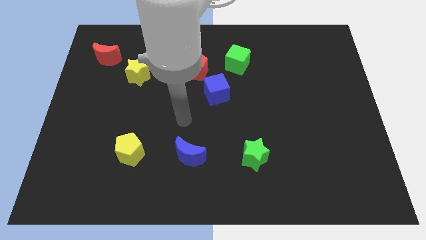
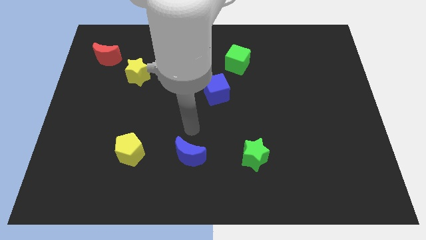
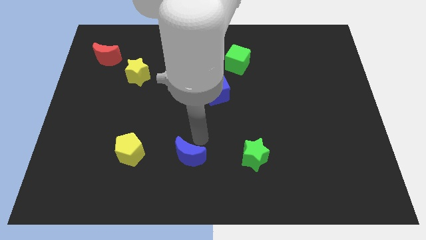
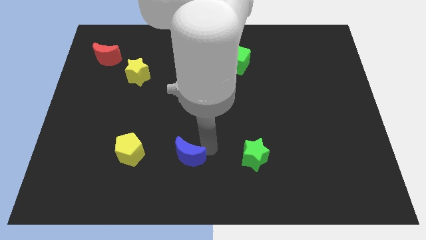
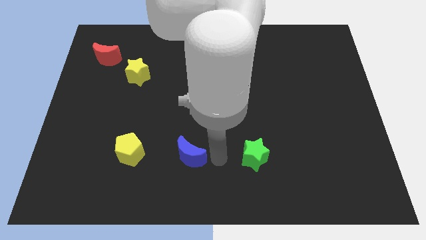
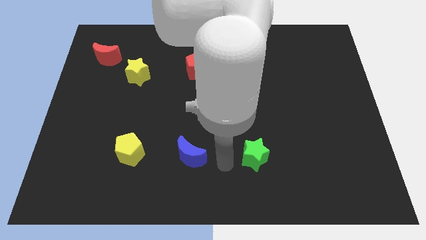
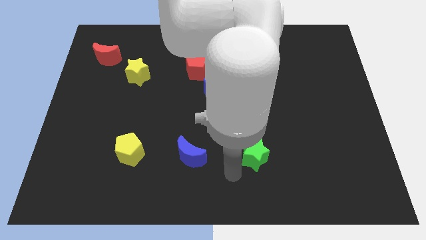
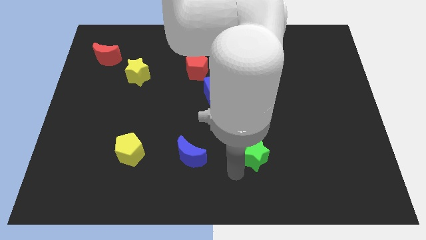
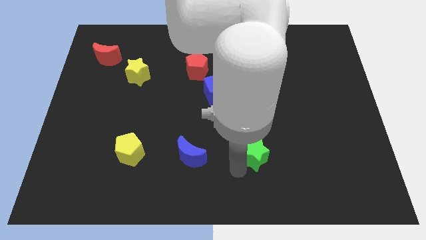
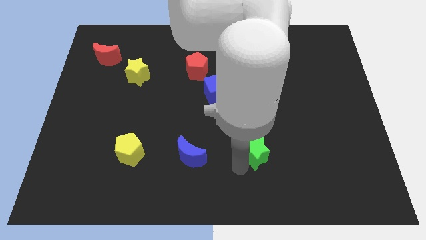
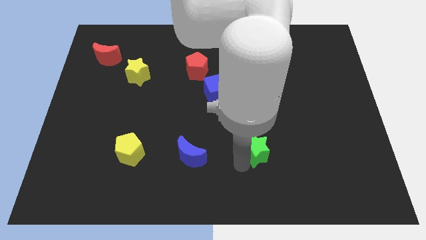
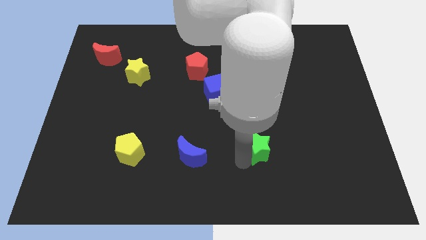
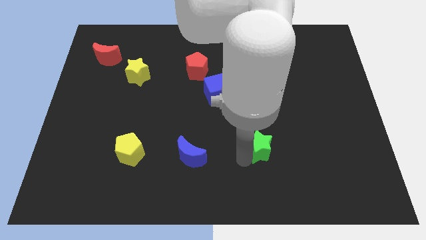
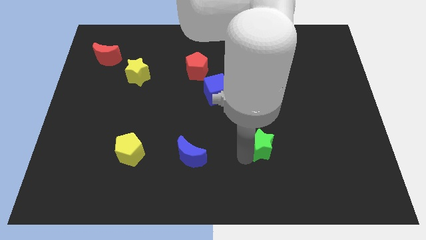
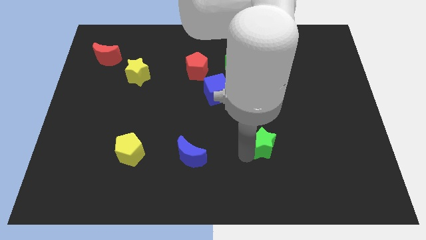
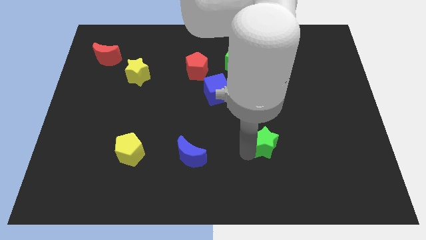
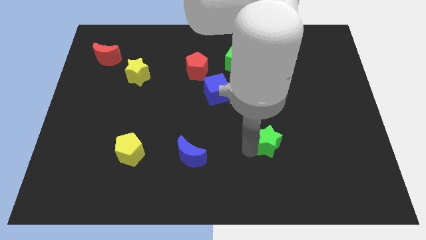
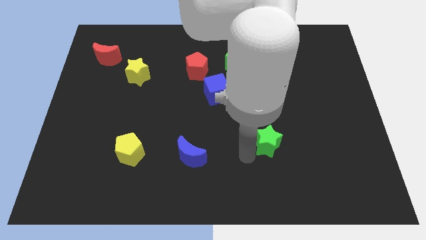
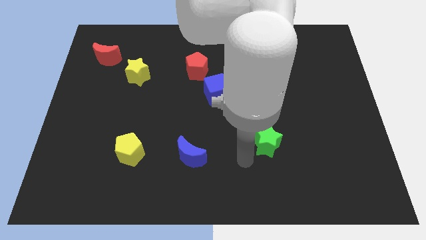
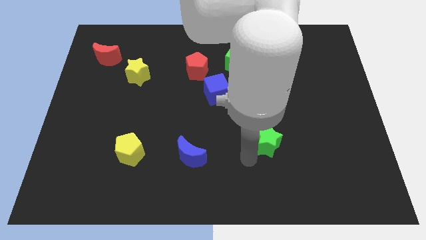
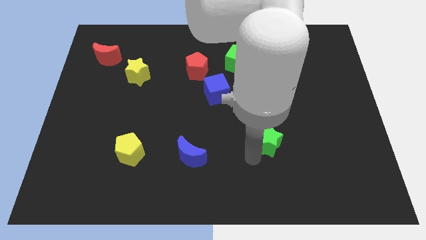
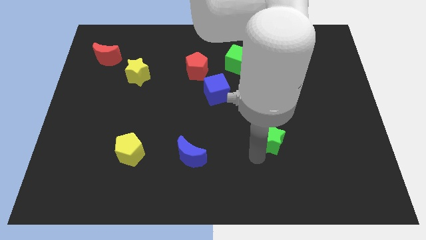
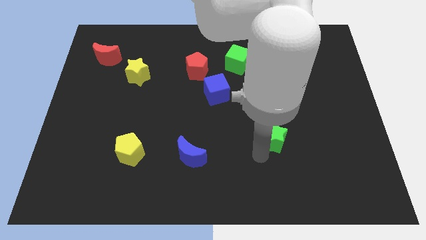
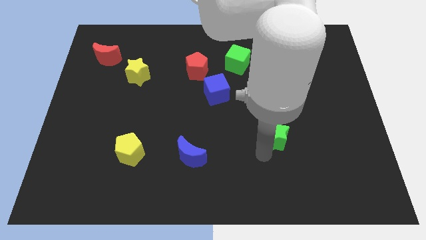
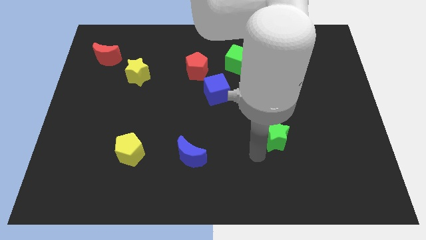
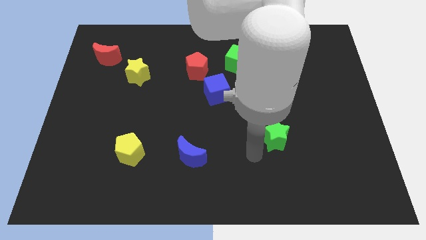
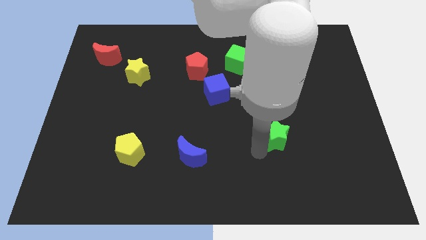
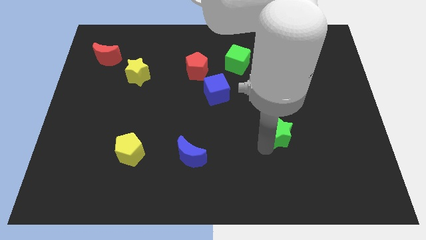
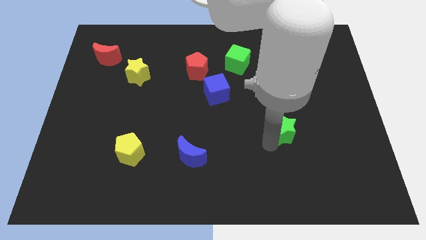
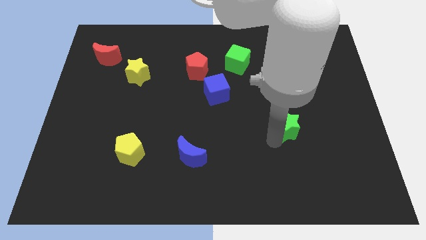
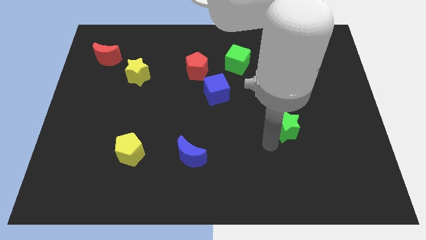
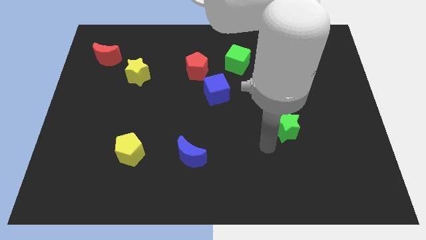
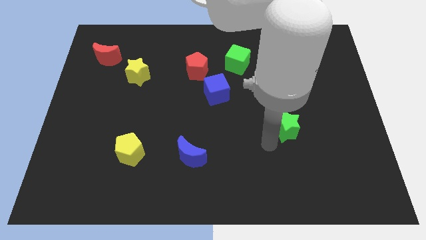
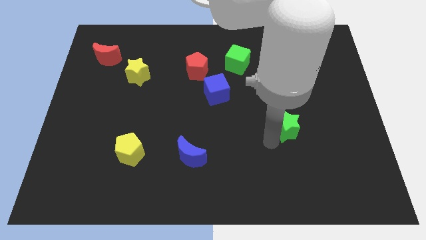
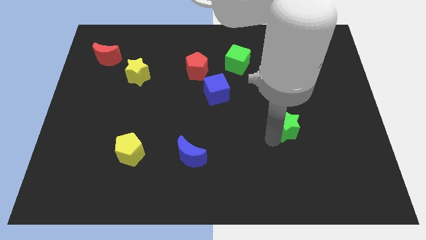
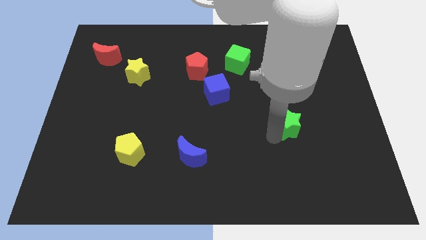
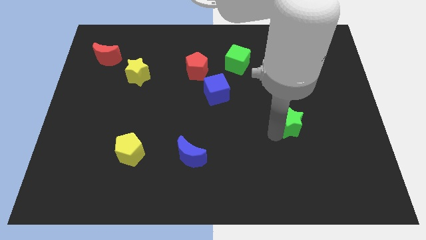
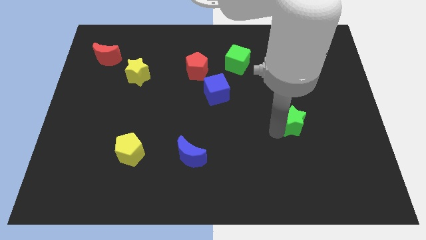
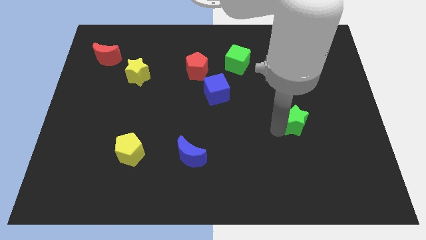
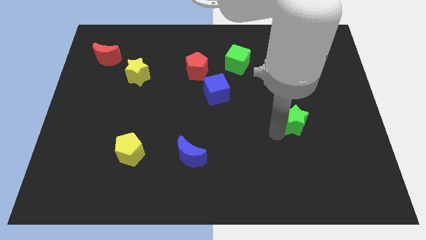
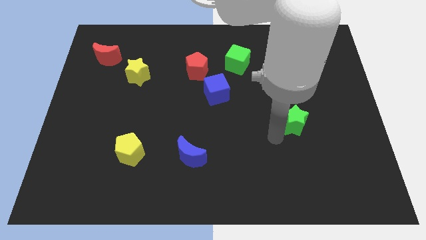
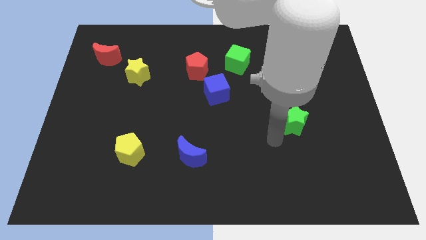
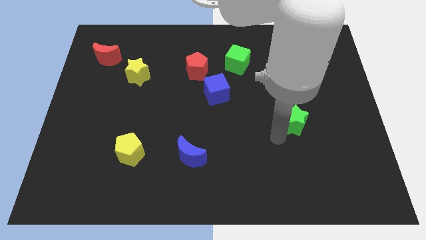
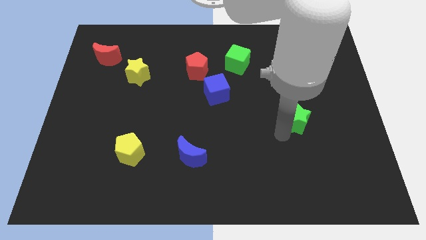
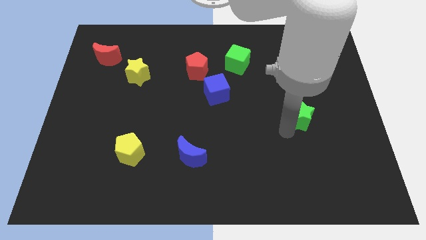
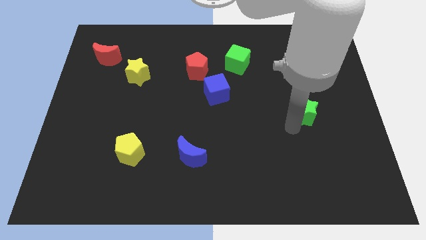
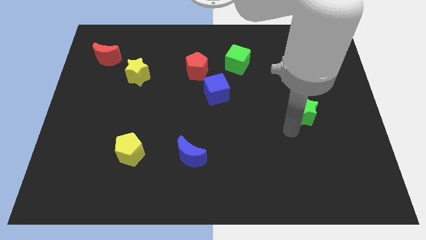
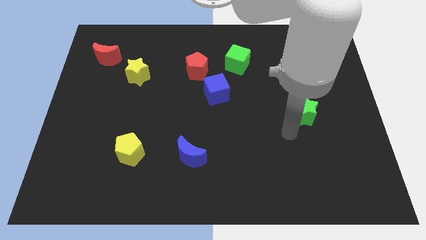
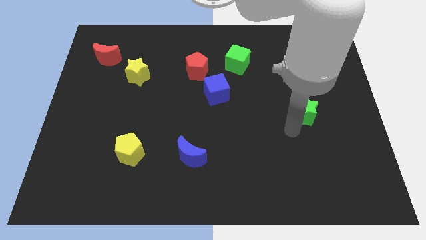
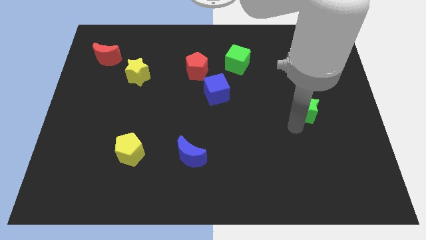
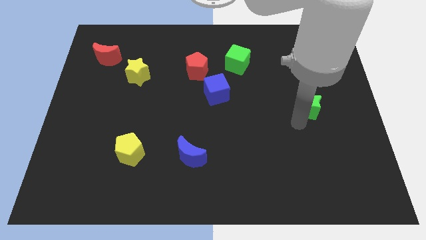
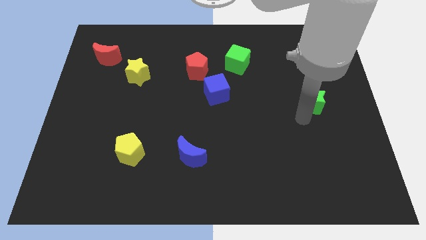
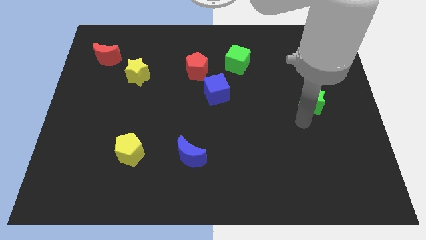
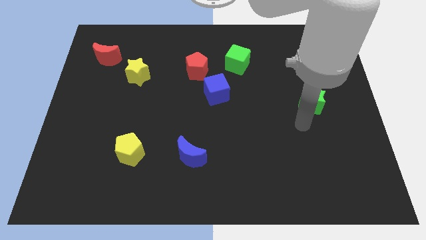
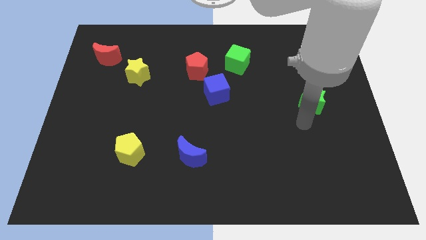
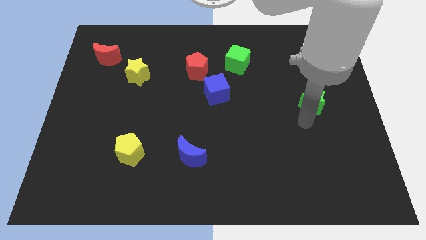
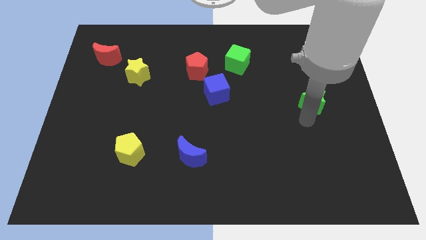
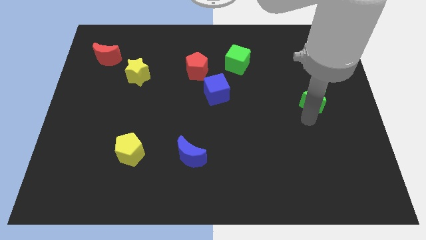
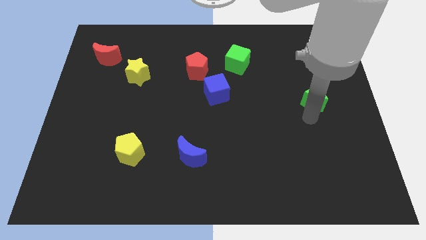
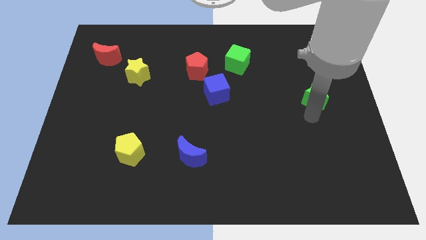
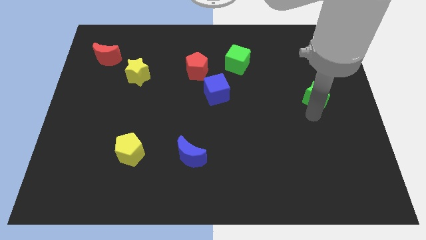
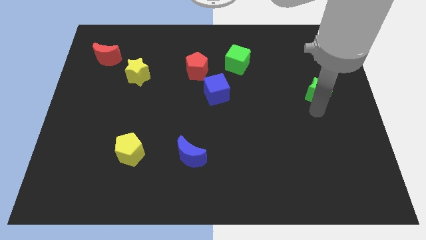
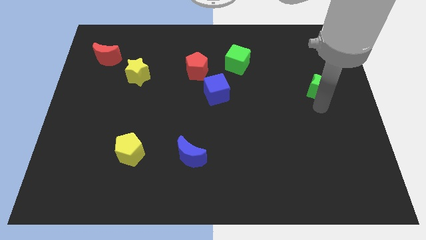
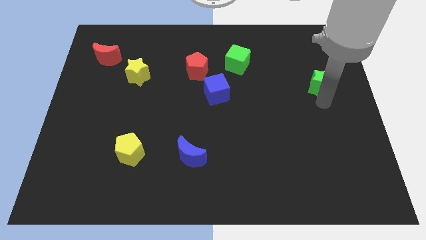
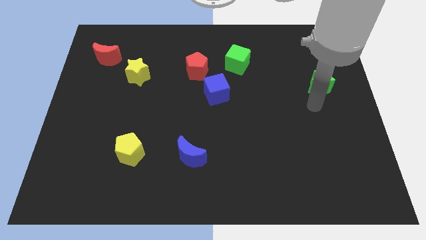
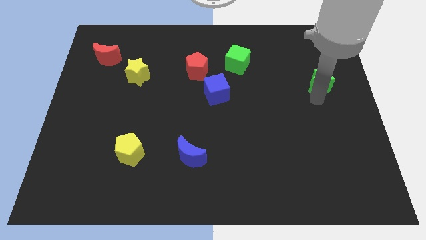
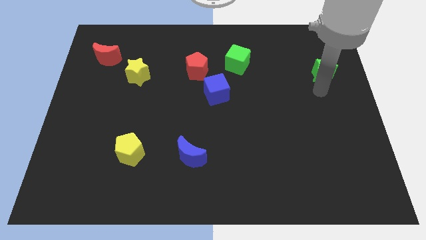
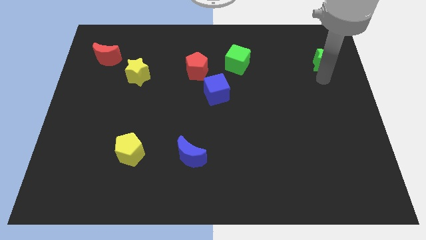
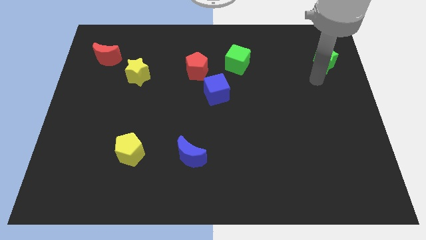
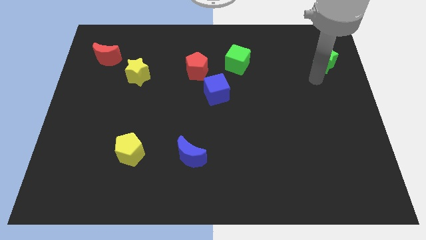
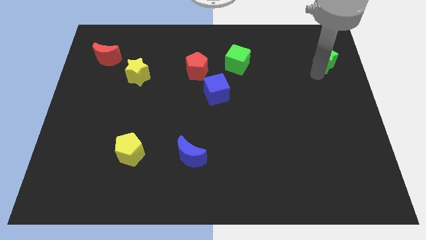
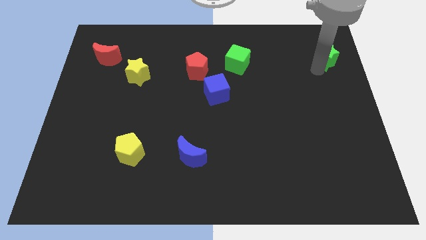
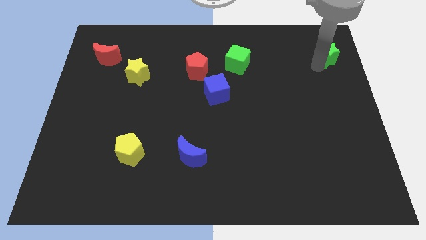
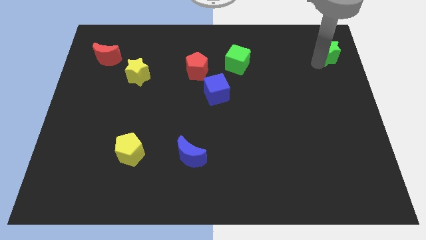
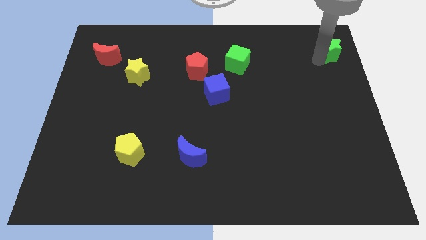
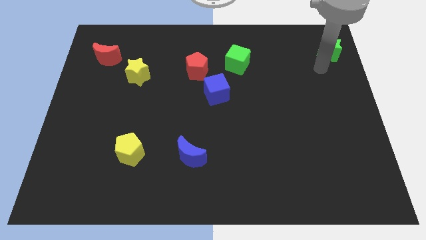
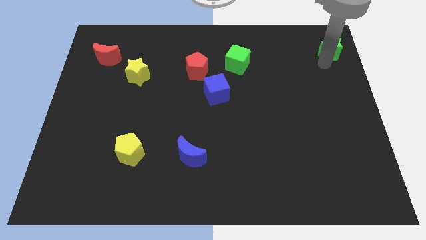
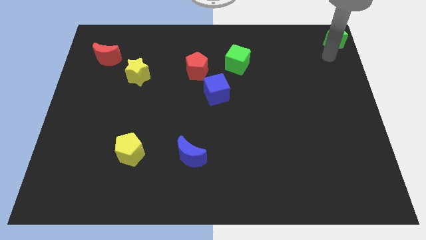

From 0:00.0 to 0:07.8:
slide the green star to the top right
